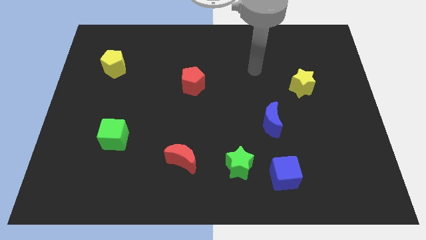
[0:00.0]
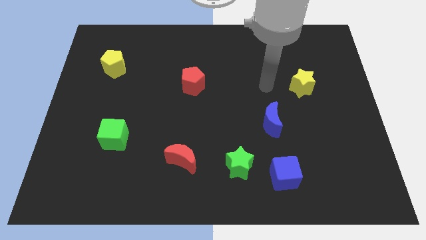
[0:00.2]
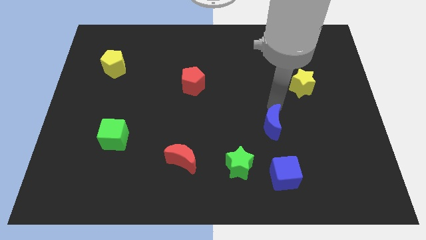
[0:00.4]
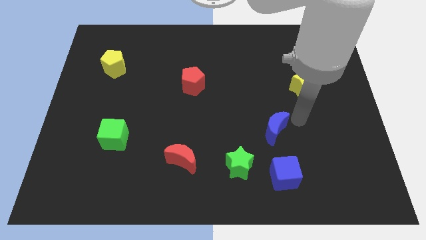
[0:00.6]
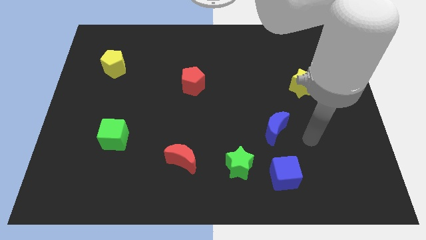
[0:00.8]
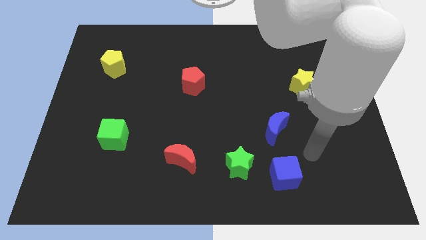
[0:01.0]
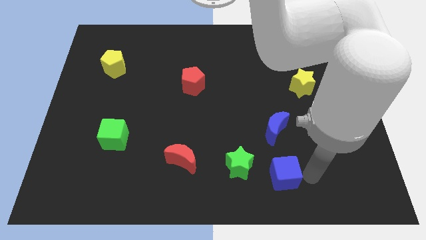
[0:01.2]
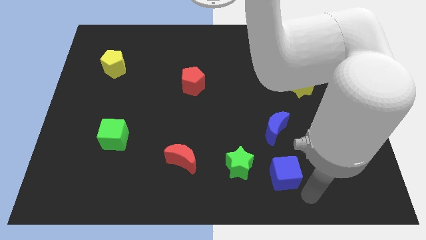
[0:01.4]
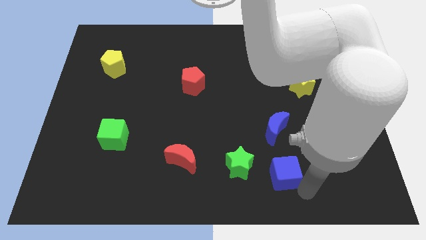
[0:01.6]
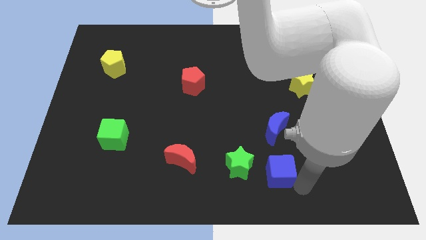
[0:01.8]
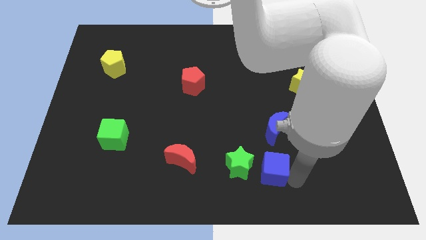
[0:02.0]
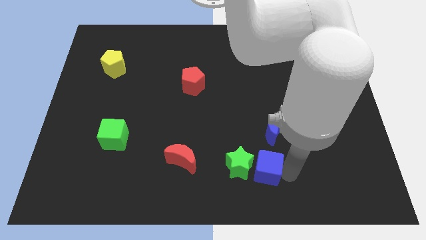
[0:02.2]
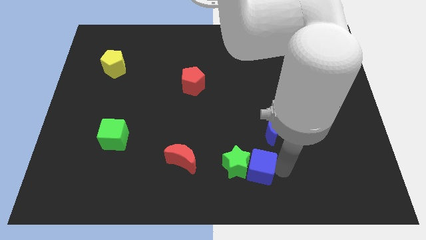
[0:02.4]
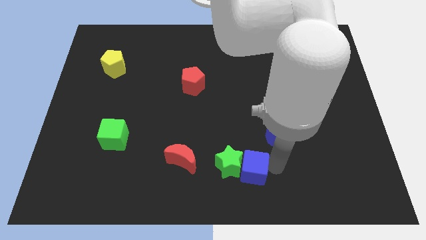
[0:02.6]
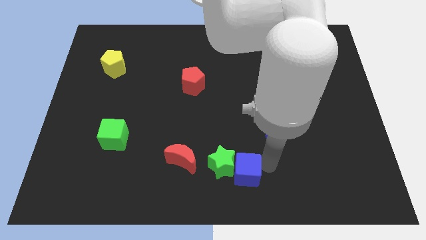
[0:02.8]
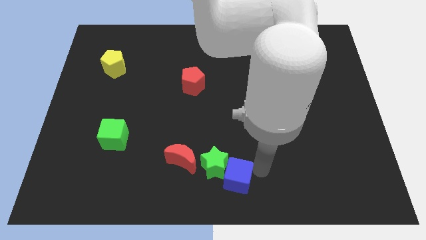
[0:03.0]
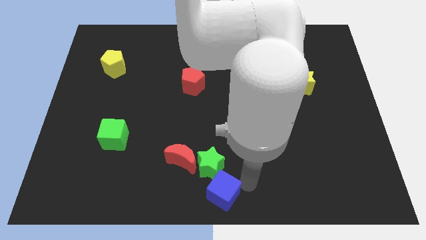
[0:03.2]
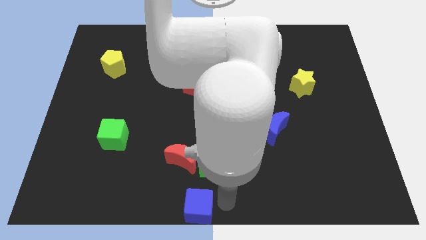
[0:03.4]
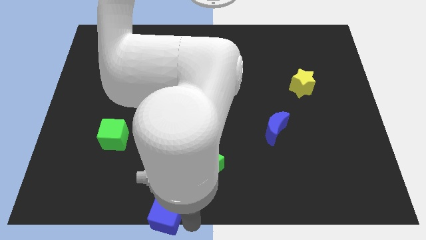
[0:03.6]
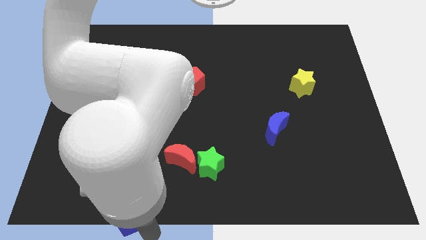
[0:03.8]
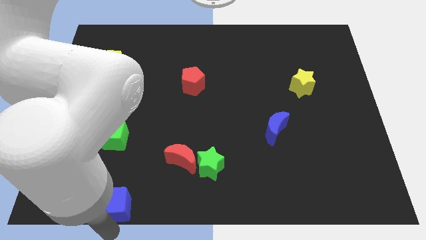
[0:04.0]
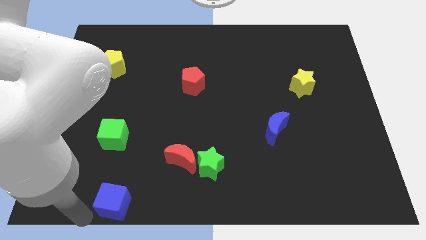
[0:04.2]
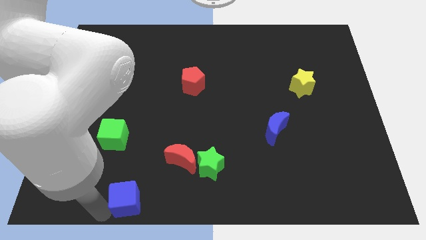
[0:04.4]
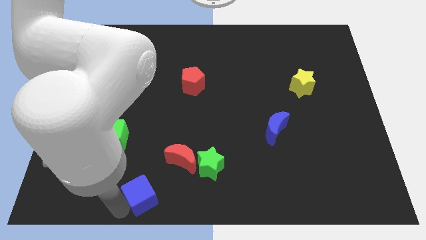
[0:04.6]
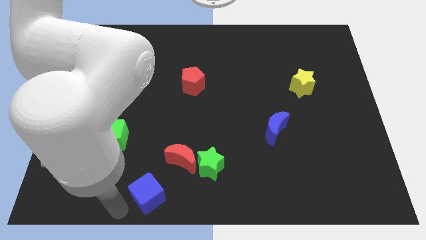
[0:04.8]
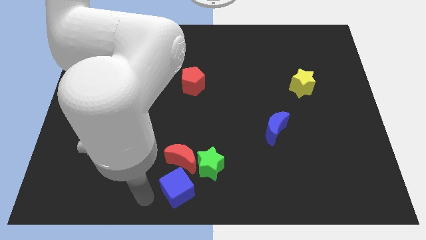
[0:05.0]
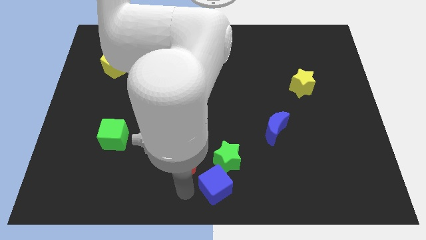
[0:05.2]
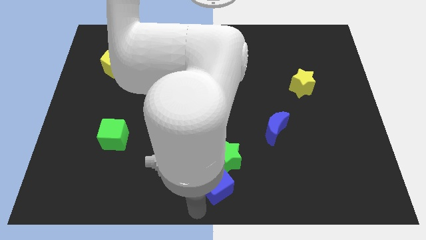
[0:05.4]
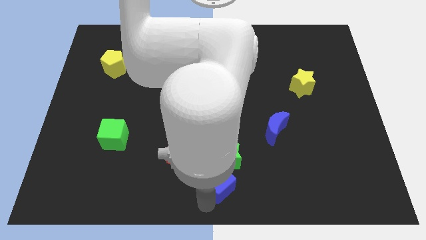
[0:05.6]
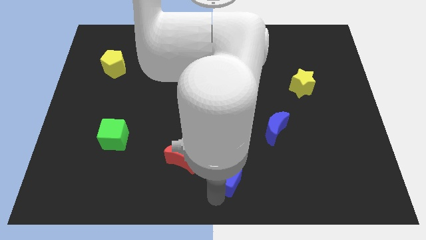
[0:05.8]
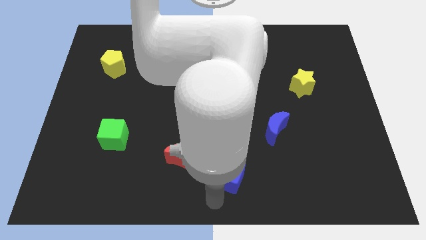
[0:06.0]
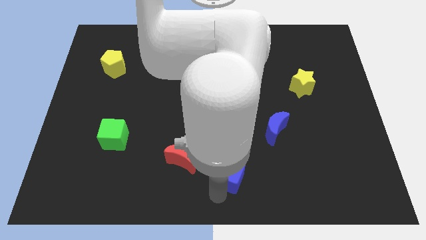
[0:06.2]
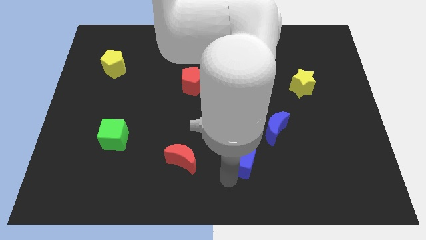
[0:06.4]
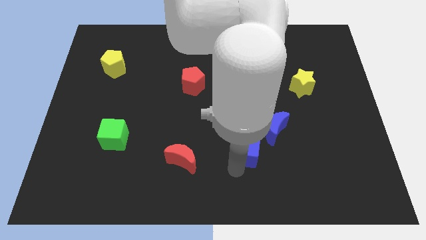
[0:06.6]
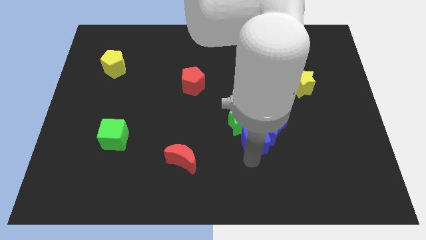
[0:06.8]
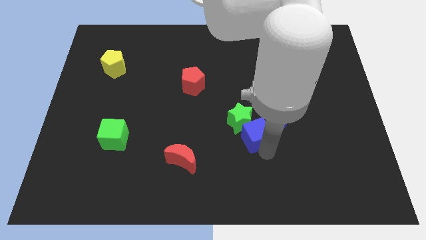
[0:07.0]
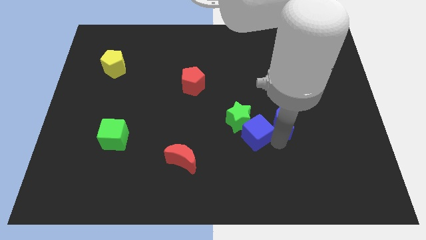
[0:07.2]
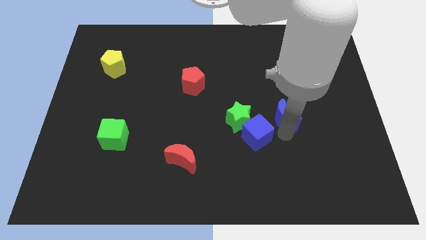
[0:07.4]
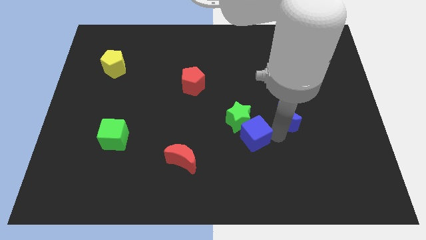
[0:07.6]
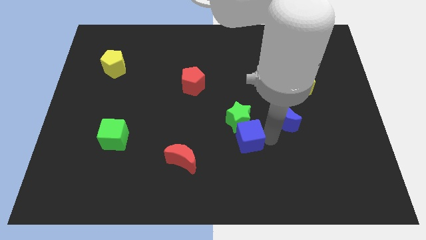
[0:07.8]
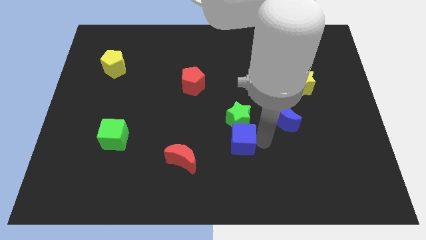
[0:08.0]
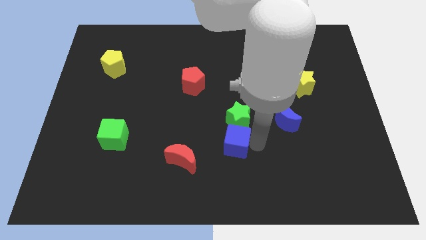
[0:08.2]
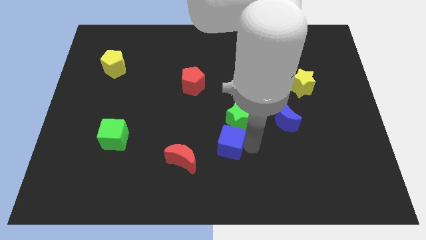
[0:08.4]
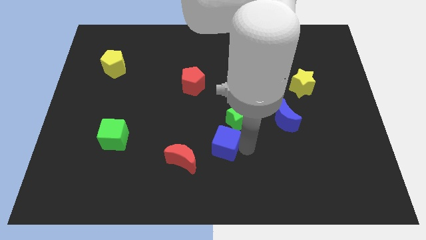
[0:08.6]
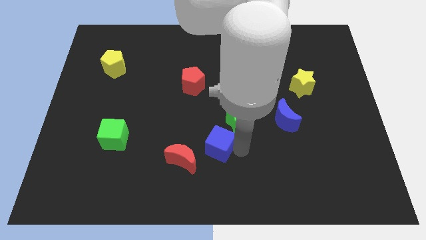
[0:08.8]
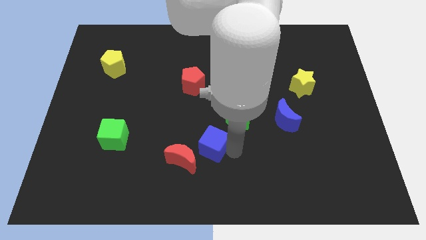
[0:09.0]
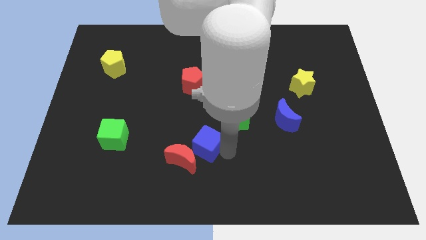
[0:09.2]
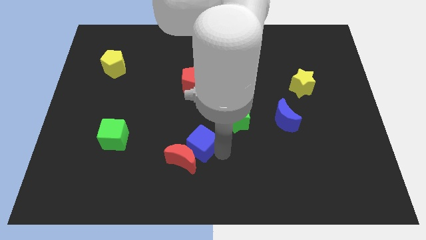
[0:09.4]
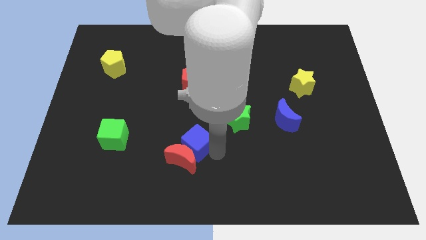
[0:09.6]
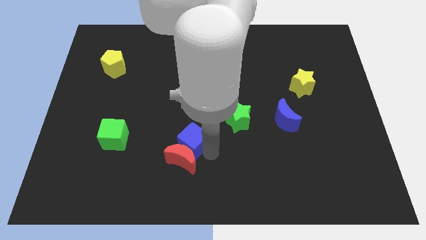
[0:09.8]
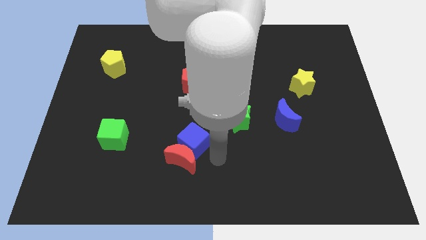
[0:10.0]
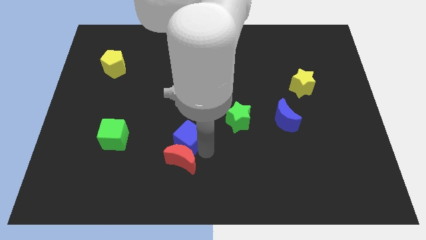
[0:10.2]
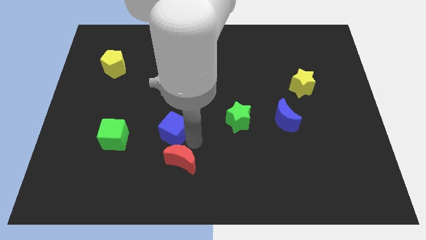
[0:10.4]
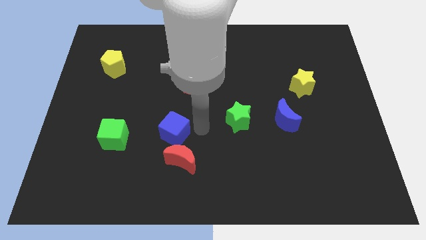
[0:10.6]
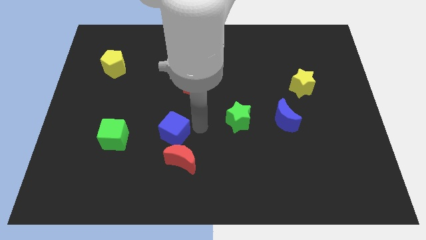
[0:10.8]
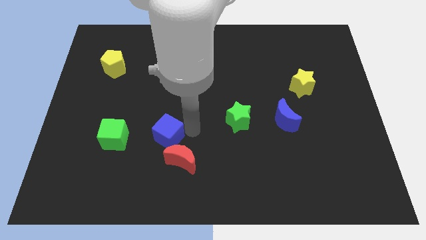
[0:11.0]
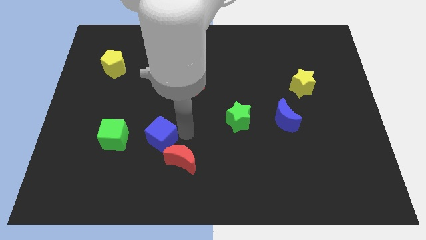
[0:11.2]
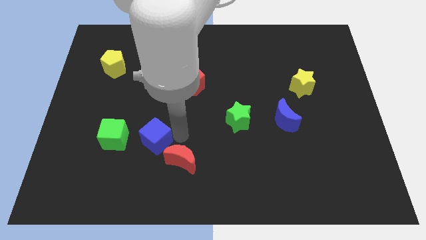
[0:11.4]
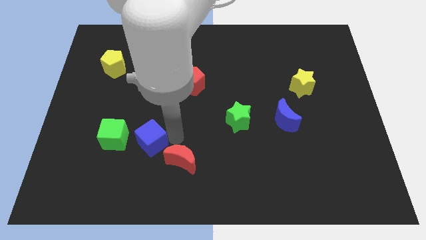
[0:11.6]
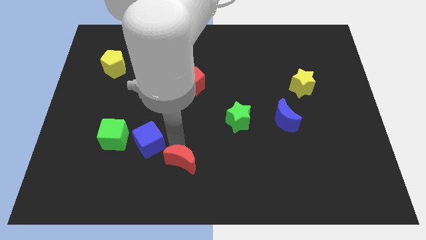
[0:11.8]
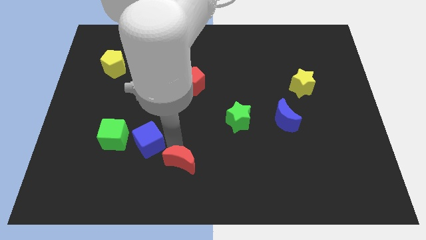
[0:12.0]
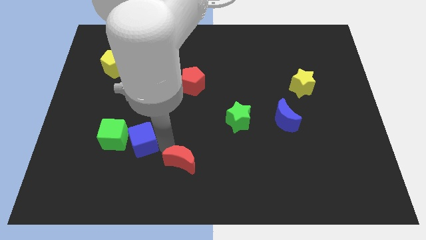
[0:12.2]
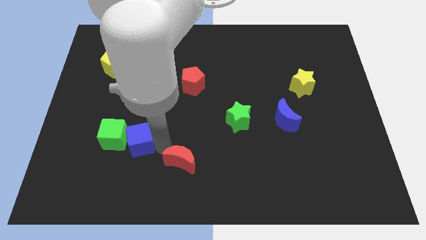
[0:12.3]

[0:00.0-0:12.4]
put the blue cube close to the green cube

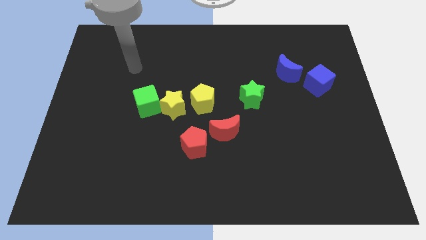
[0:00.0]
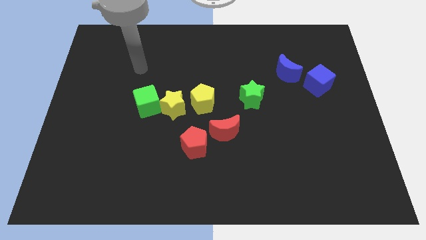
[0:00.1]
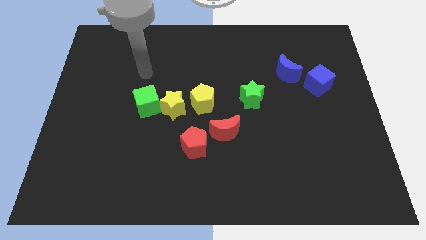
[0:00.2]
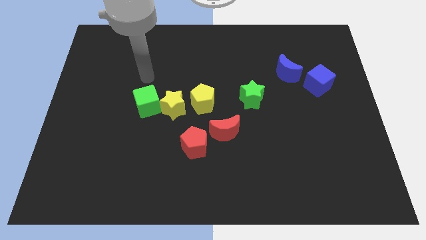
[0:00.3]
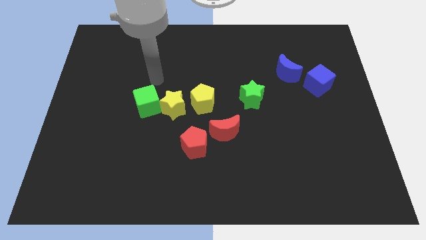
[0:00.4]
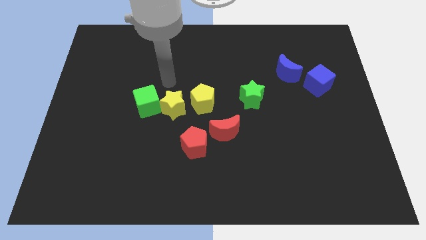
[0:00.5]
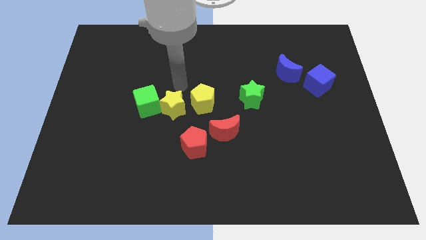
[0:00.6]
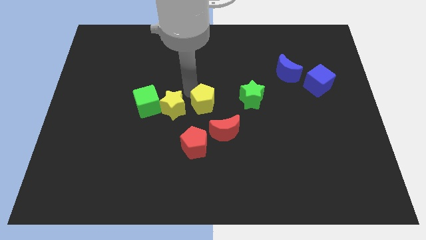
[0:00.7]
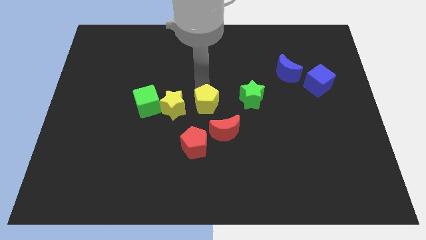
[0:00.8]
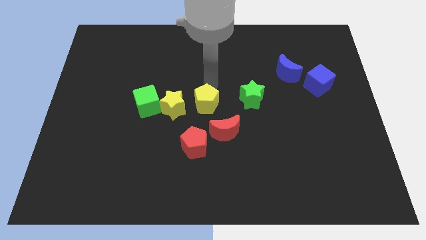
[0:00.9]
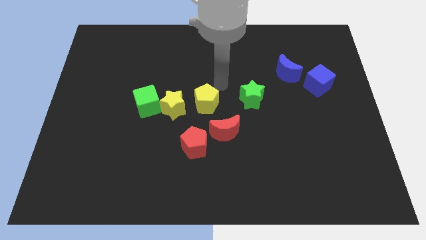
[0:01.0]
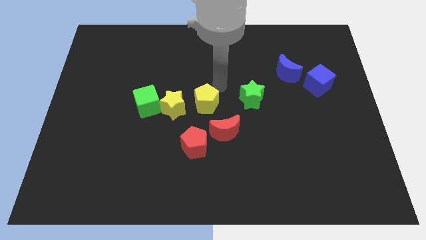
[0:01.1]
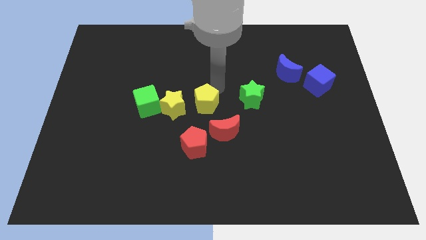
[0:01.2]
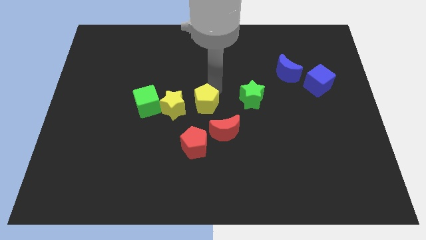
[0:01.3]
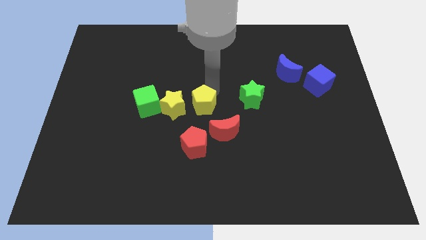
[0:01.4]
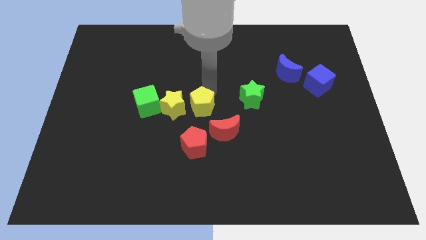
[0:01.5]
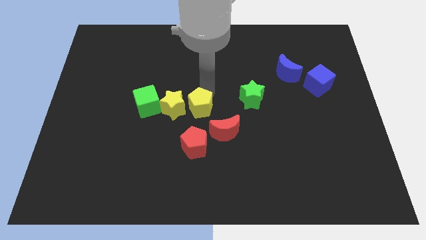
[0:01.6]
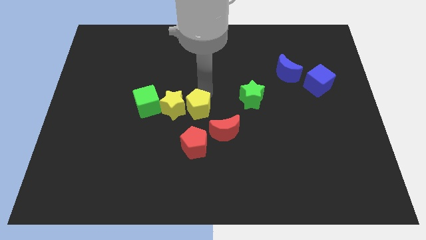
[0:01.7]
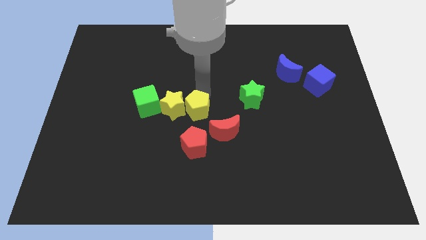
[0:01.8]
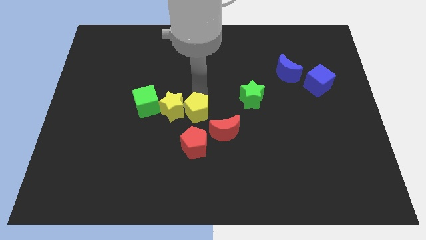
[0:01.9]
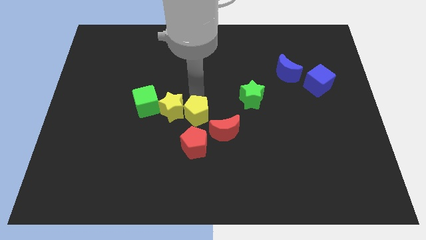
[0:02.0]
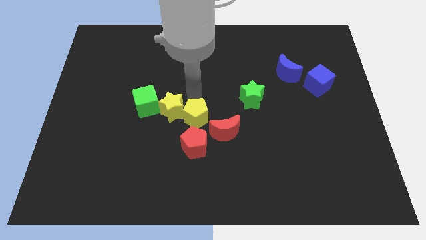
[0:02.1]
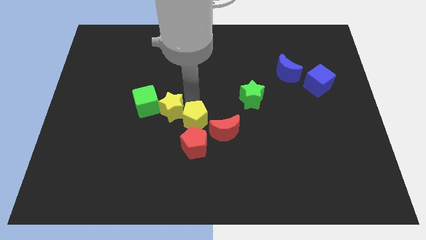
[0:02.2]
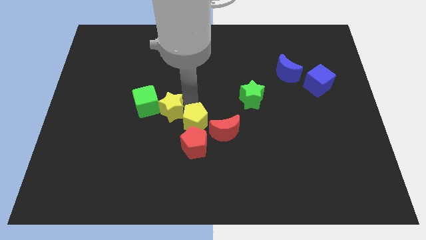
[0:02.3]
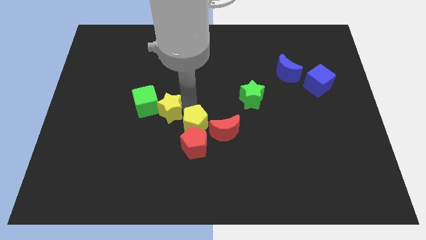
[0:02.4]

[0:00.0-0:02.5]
slide the yellow pentagon to the red pentagon
